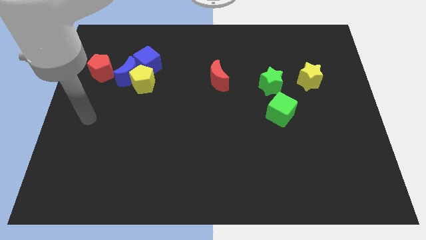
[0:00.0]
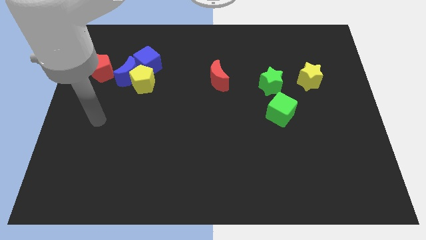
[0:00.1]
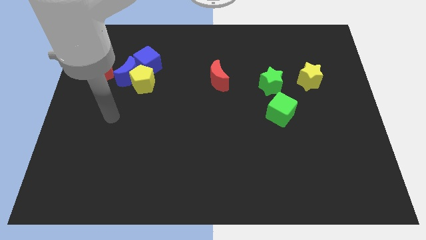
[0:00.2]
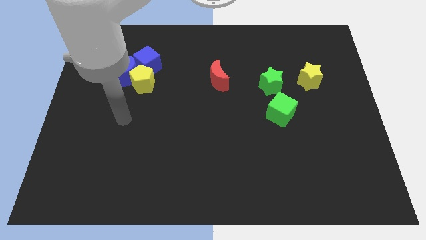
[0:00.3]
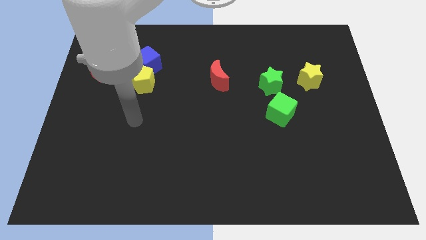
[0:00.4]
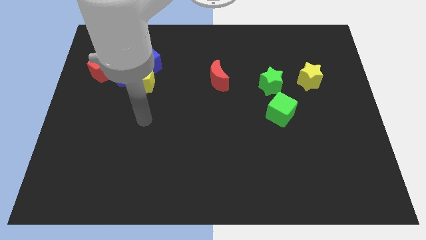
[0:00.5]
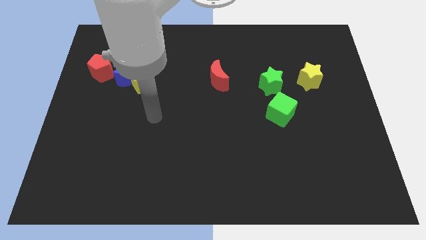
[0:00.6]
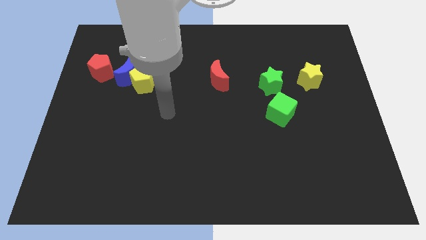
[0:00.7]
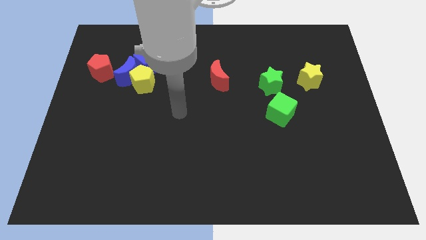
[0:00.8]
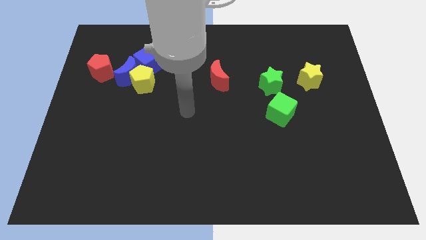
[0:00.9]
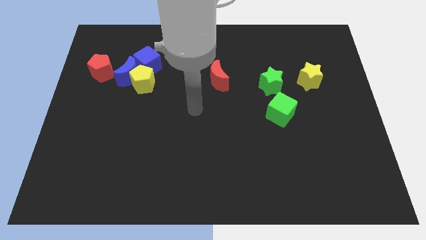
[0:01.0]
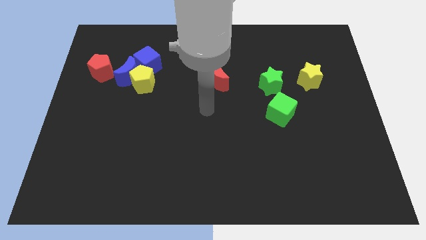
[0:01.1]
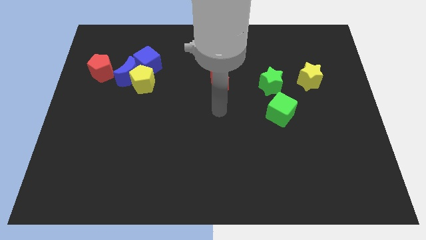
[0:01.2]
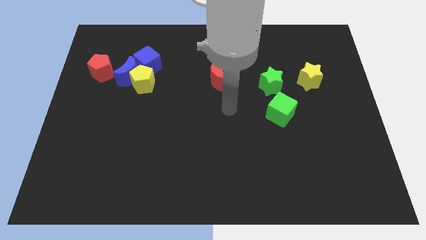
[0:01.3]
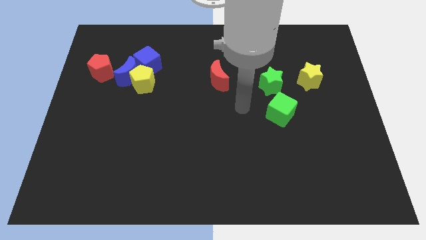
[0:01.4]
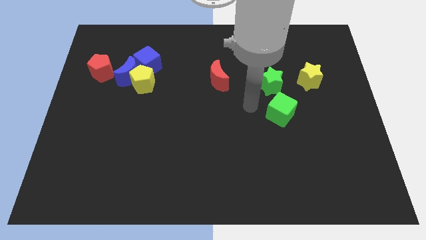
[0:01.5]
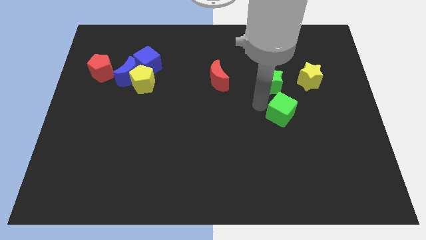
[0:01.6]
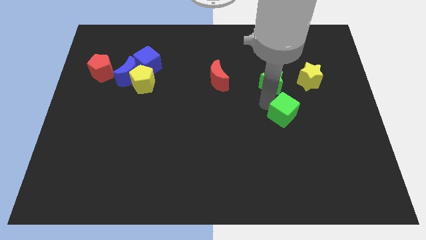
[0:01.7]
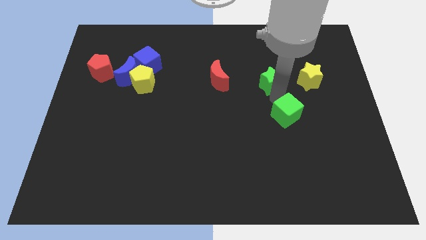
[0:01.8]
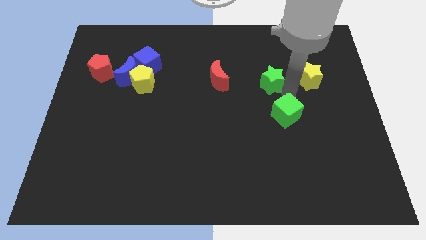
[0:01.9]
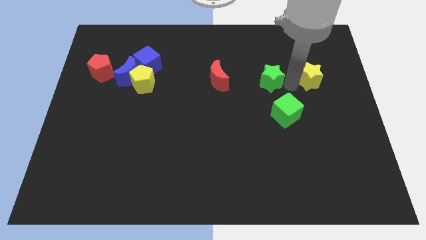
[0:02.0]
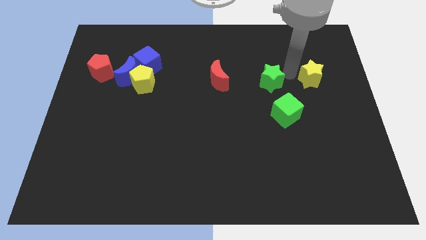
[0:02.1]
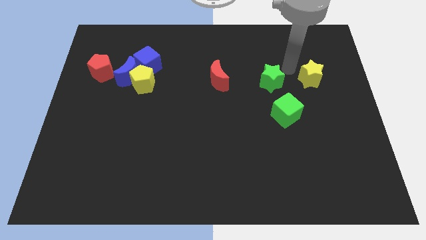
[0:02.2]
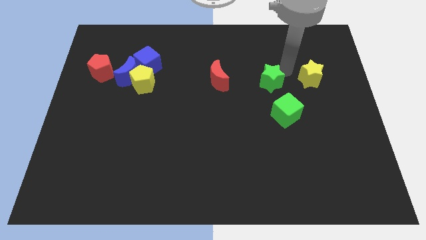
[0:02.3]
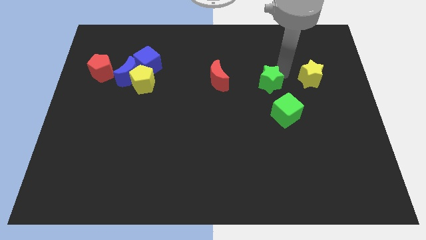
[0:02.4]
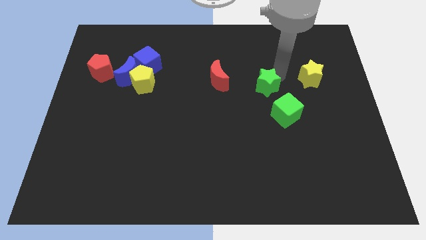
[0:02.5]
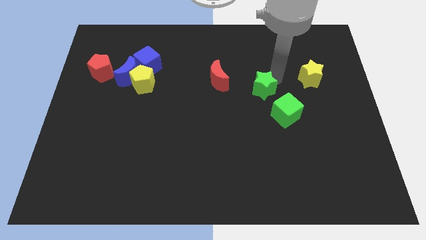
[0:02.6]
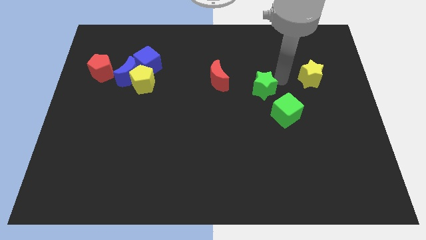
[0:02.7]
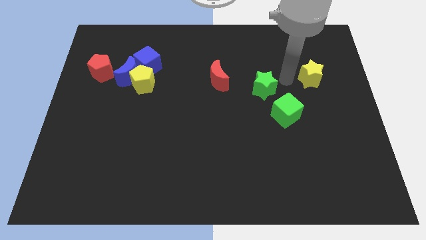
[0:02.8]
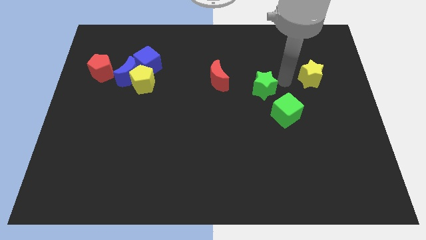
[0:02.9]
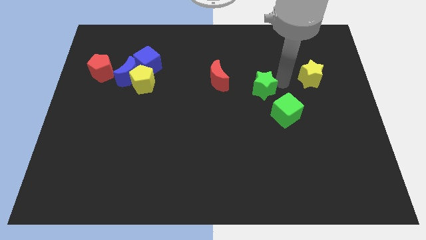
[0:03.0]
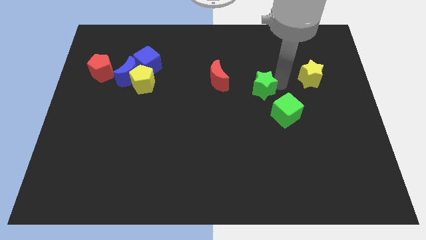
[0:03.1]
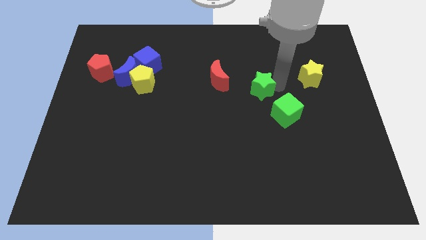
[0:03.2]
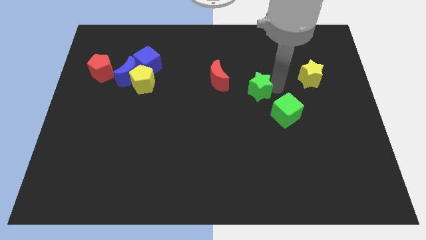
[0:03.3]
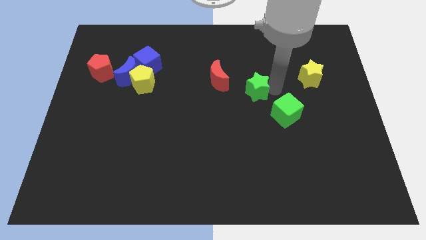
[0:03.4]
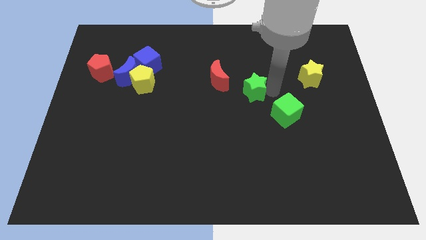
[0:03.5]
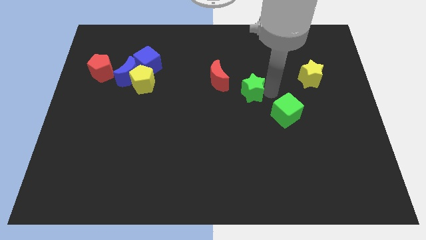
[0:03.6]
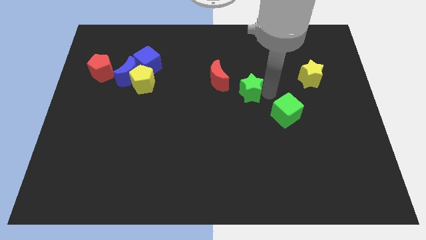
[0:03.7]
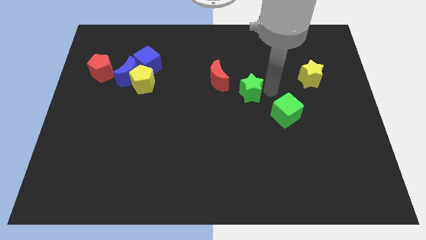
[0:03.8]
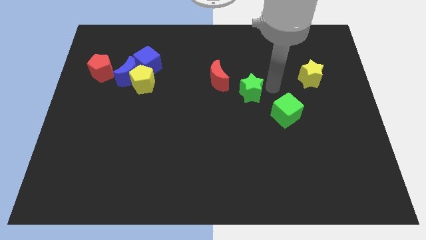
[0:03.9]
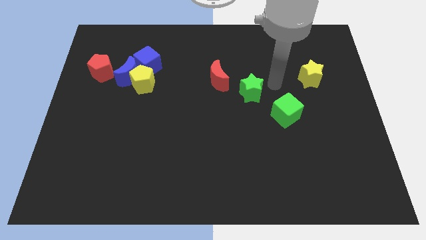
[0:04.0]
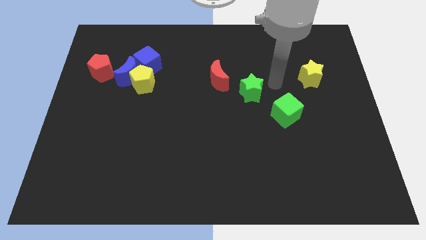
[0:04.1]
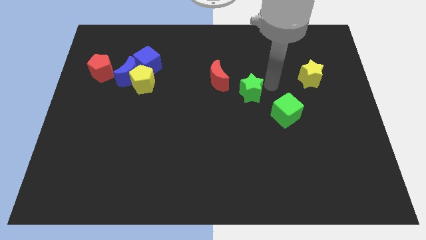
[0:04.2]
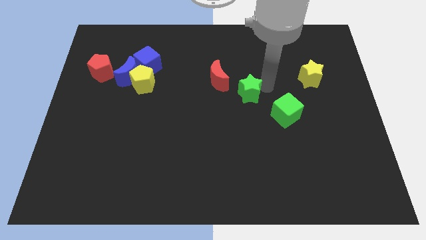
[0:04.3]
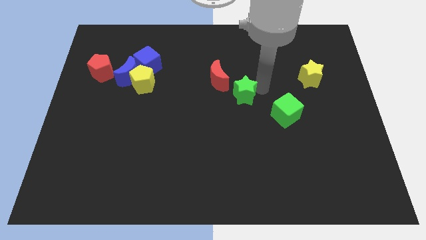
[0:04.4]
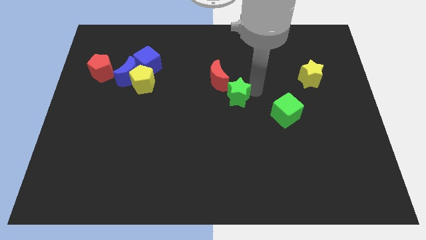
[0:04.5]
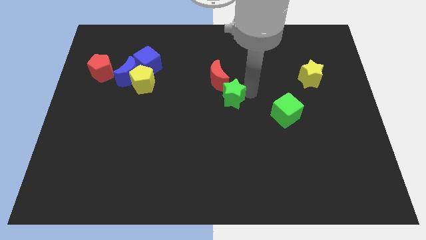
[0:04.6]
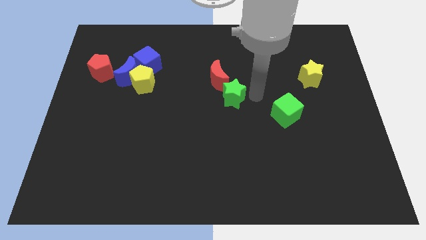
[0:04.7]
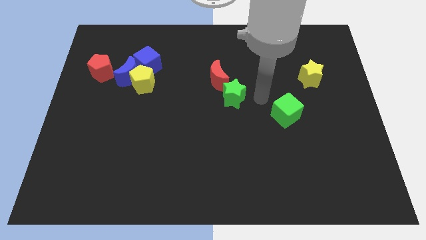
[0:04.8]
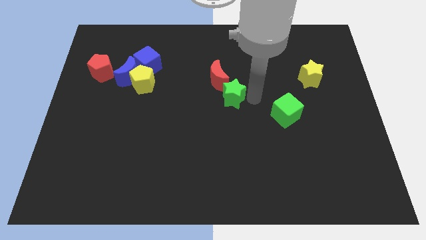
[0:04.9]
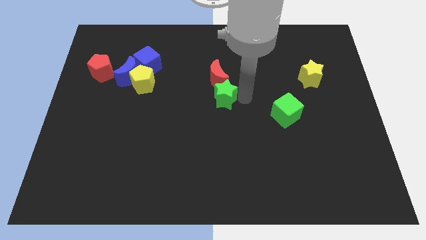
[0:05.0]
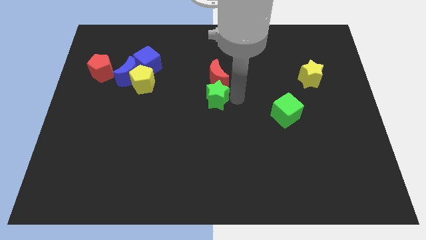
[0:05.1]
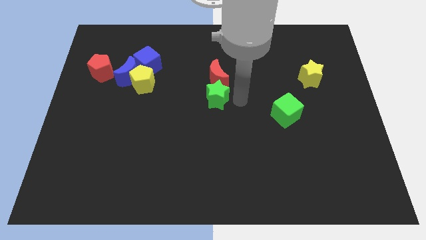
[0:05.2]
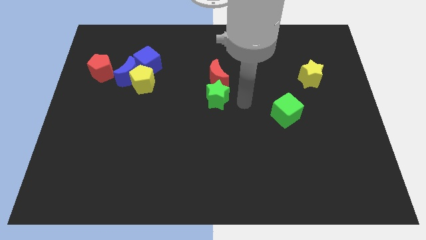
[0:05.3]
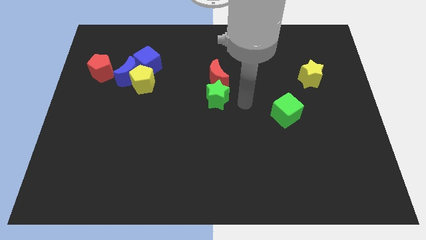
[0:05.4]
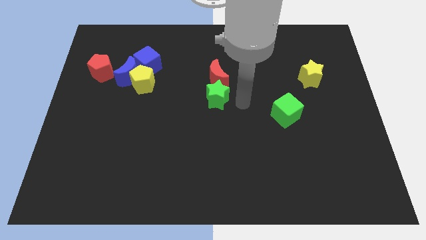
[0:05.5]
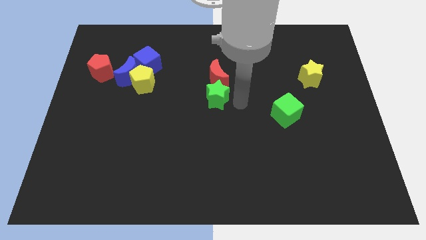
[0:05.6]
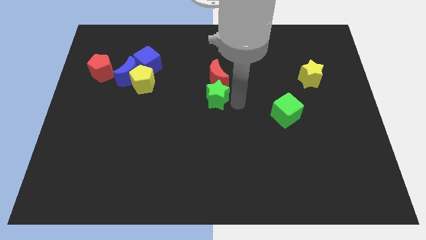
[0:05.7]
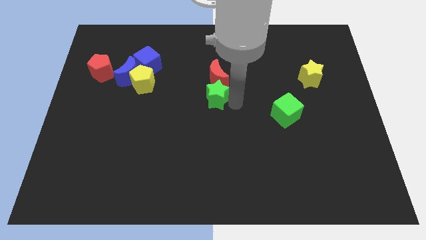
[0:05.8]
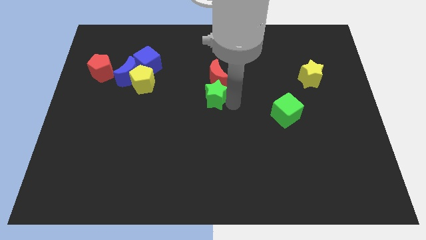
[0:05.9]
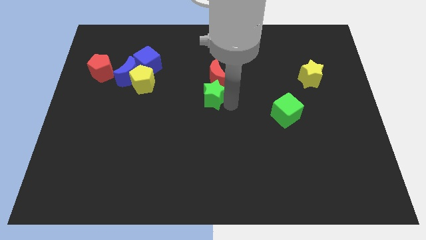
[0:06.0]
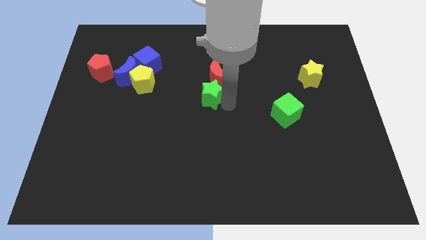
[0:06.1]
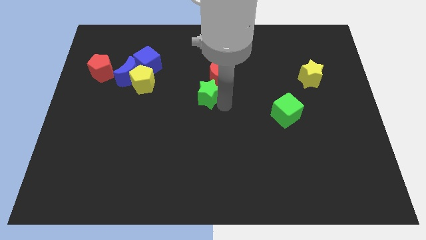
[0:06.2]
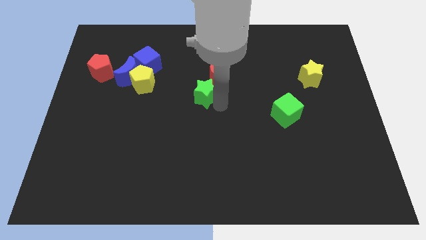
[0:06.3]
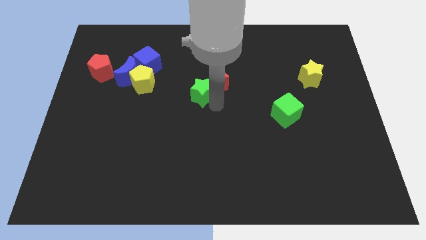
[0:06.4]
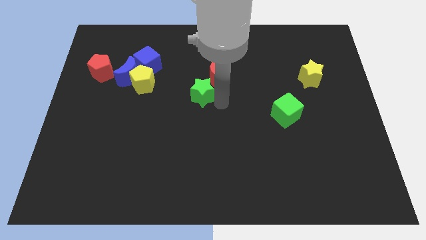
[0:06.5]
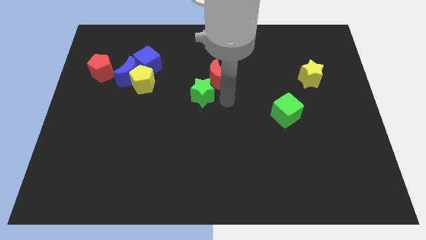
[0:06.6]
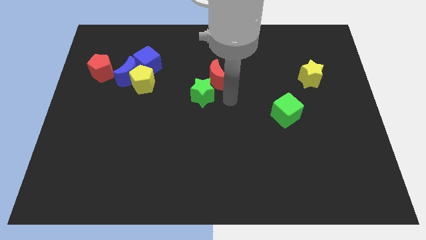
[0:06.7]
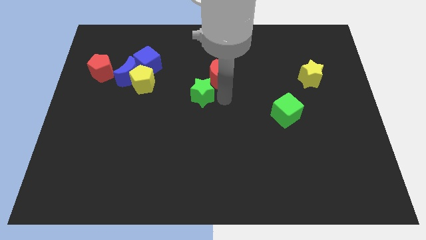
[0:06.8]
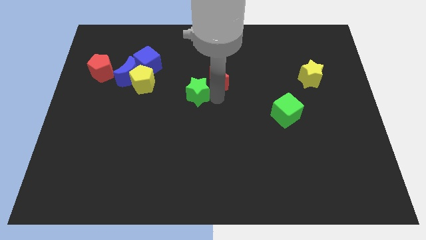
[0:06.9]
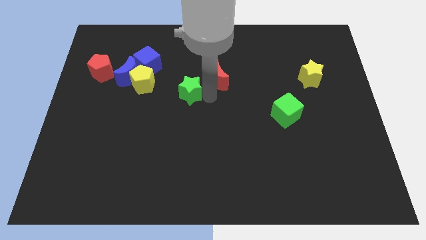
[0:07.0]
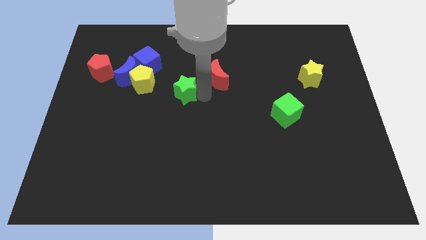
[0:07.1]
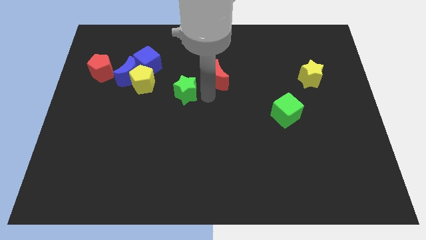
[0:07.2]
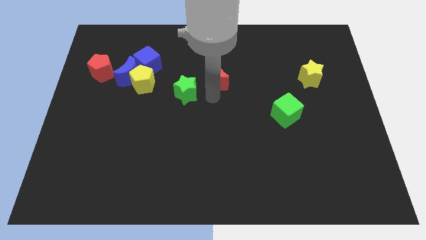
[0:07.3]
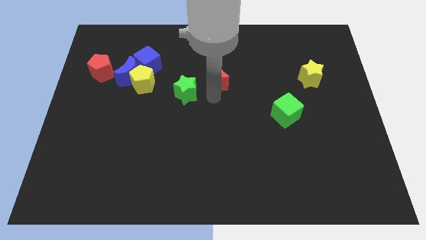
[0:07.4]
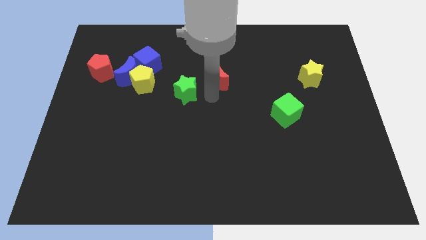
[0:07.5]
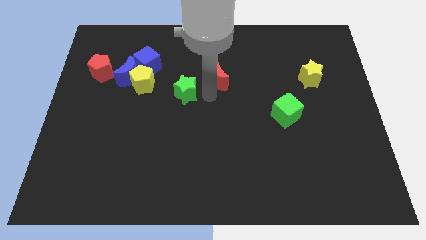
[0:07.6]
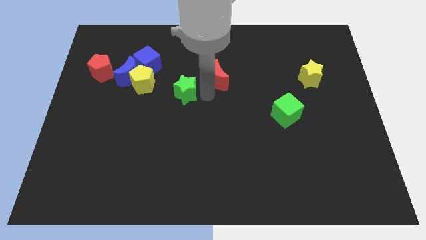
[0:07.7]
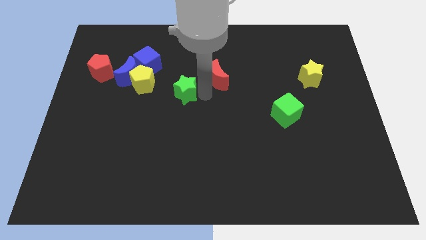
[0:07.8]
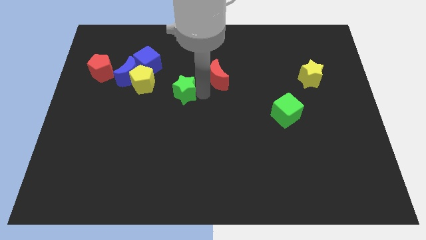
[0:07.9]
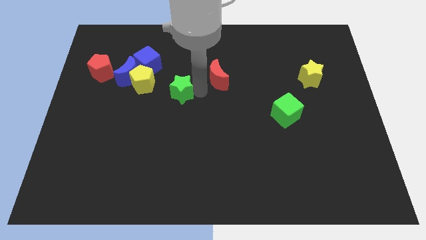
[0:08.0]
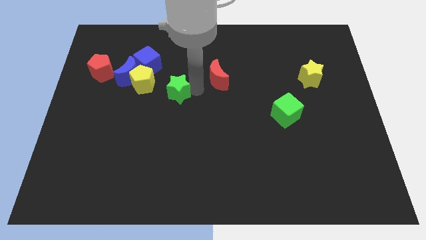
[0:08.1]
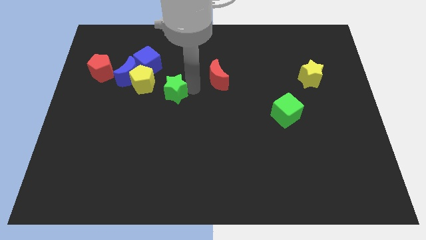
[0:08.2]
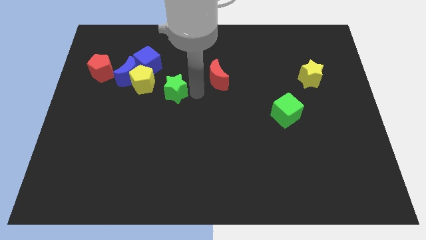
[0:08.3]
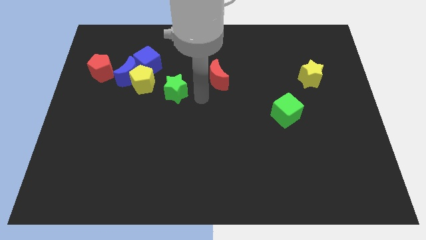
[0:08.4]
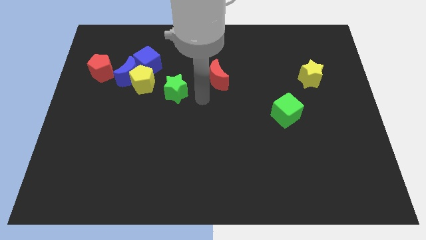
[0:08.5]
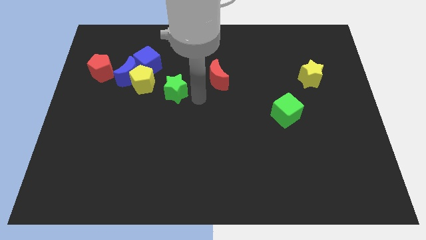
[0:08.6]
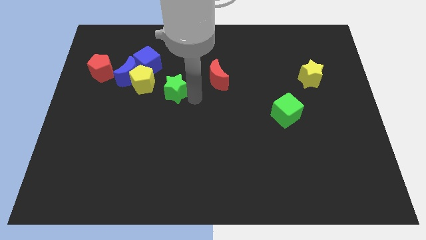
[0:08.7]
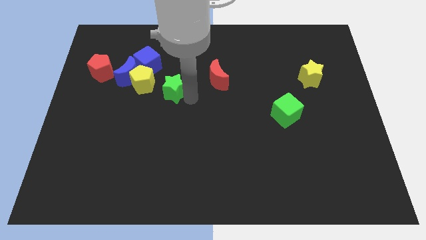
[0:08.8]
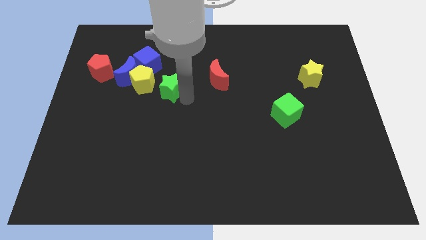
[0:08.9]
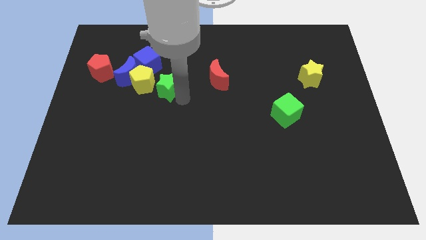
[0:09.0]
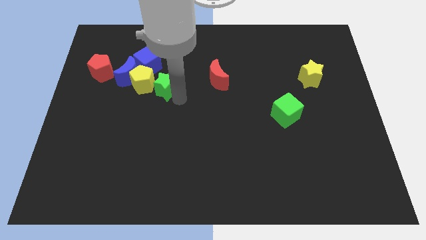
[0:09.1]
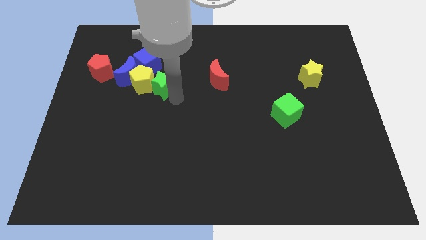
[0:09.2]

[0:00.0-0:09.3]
move the green star to the yellow pentagon
